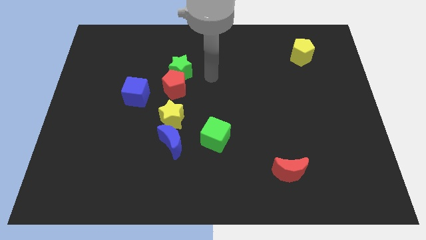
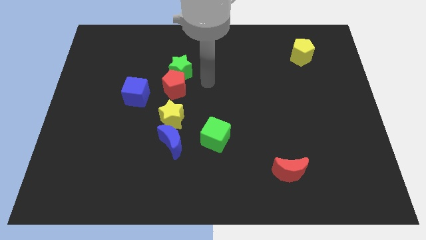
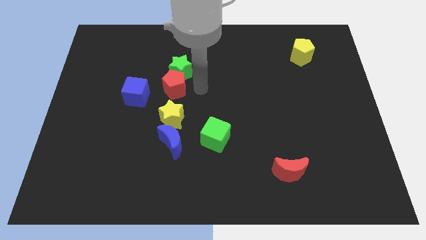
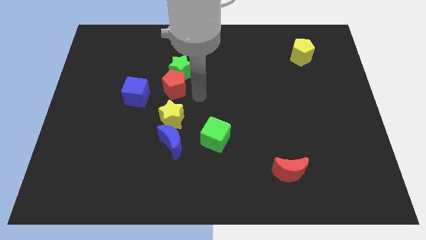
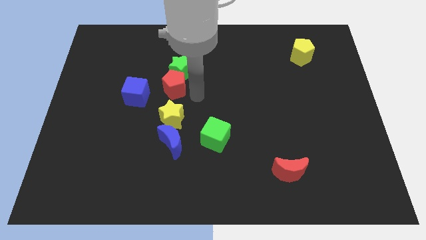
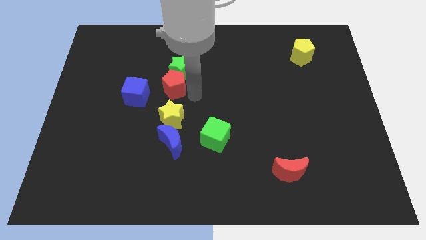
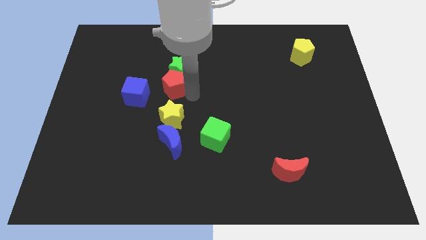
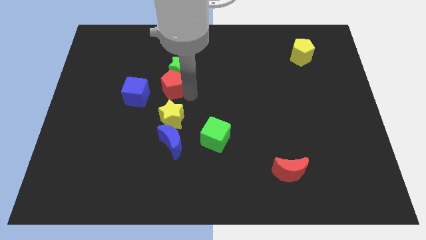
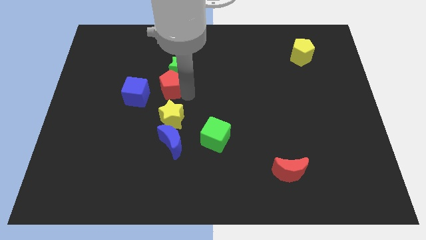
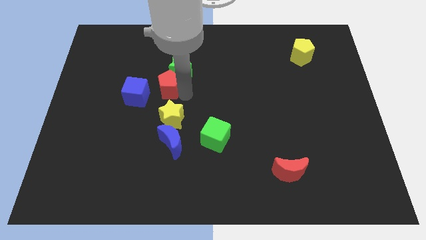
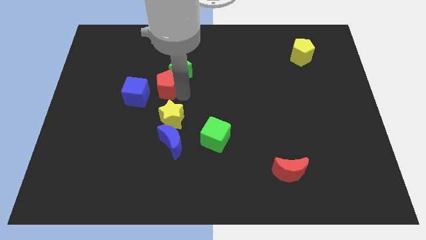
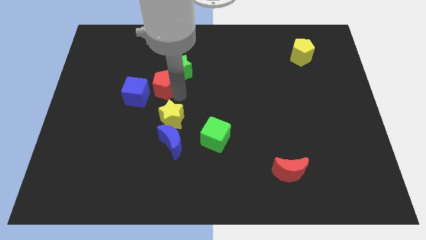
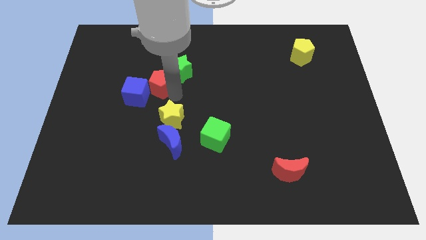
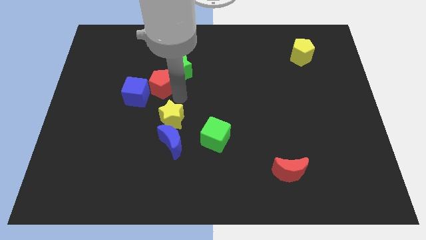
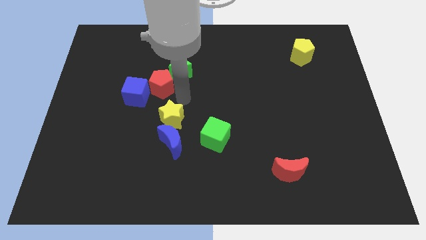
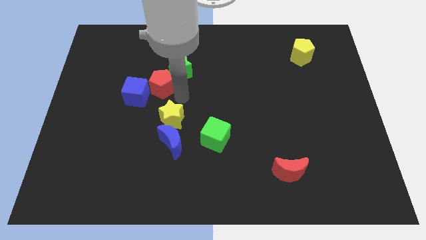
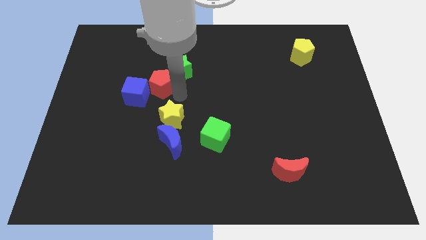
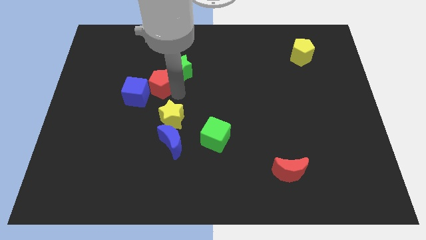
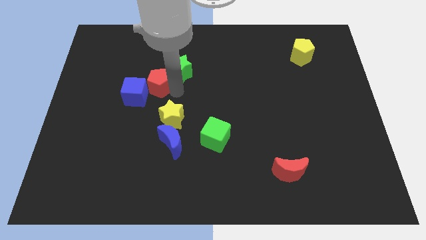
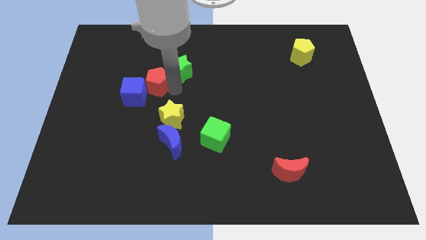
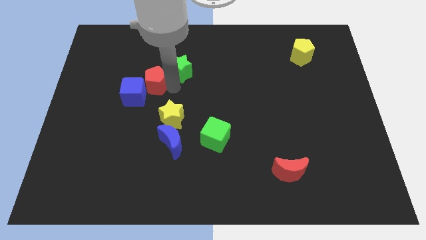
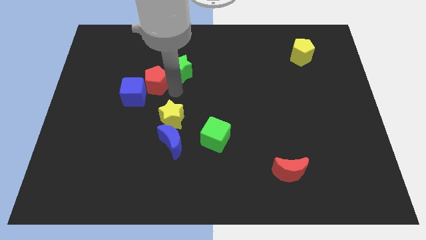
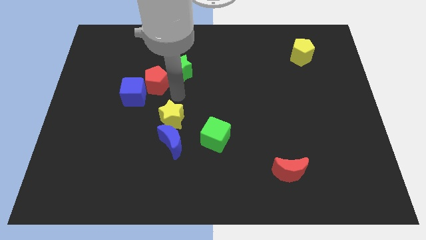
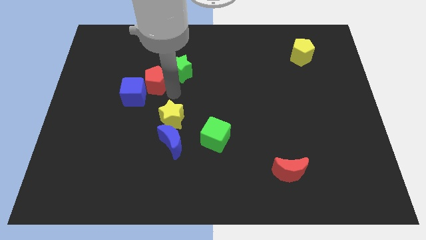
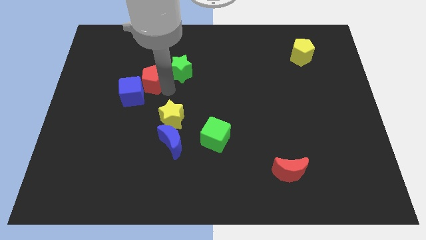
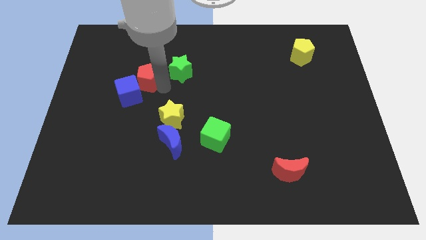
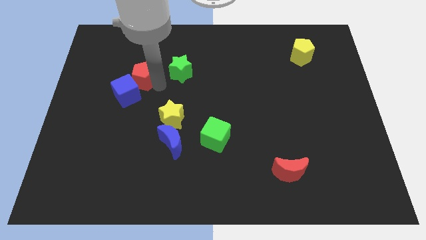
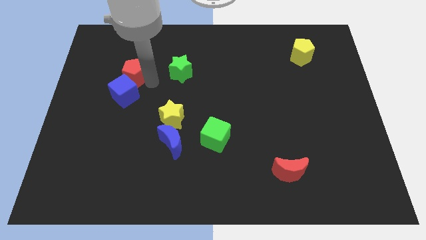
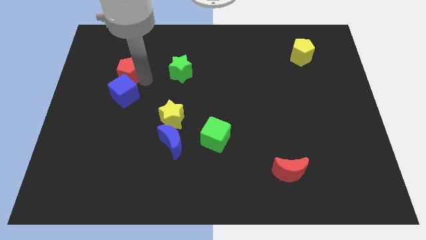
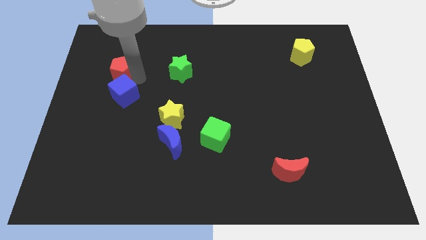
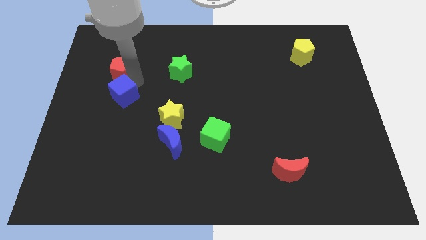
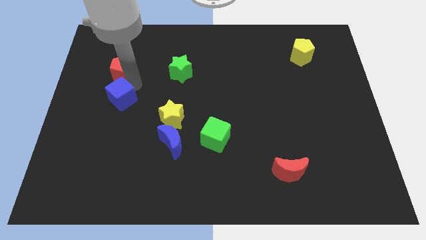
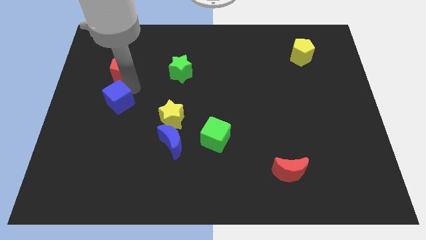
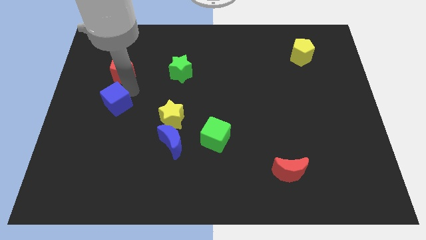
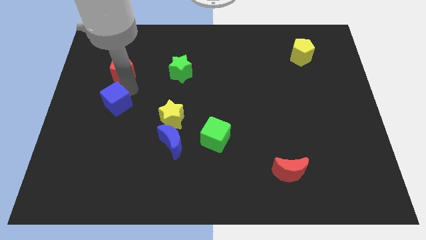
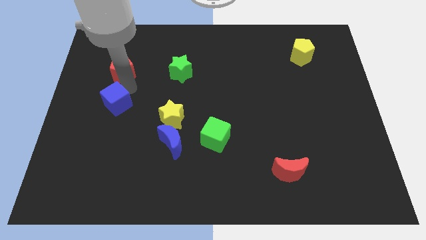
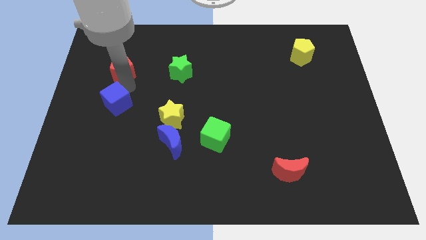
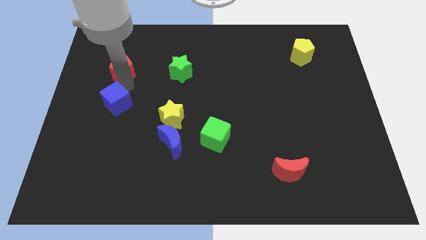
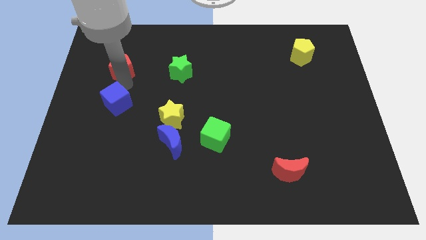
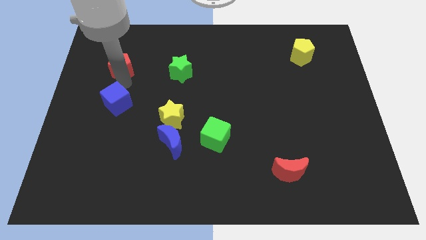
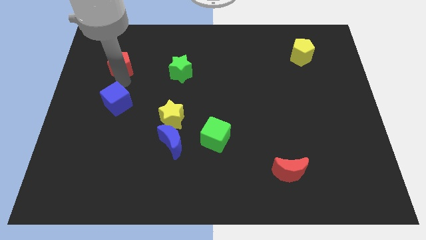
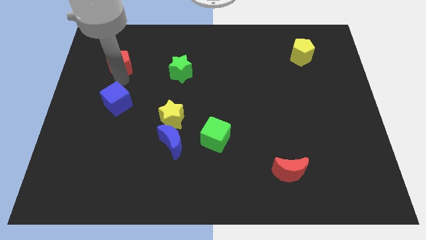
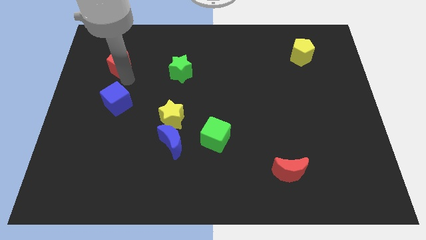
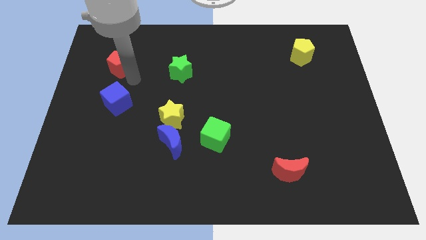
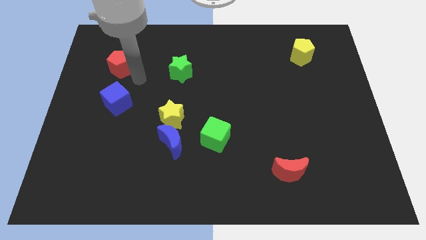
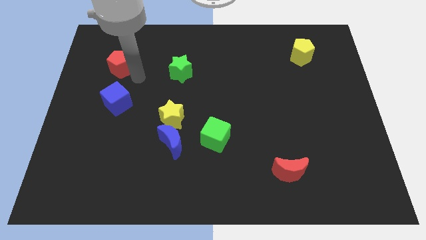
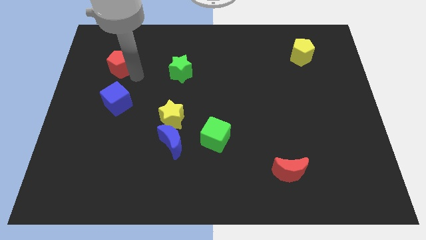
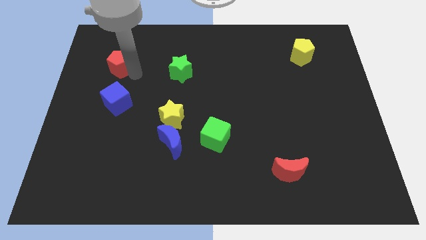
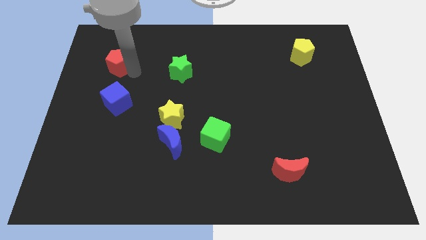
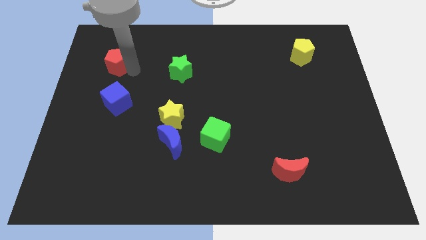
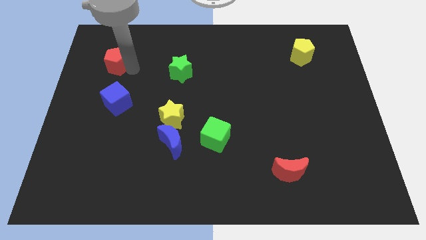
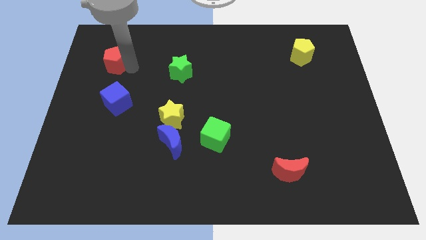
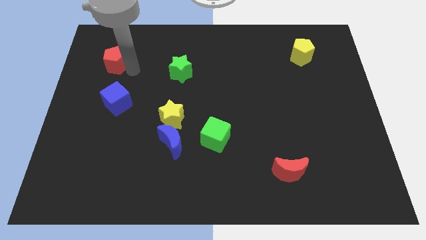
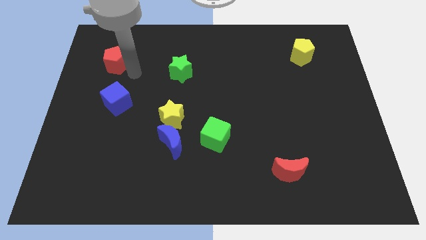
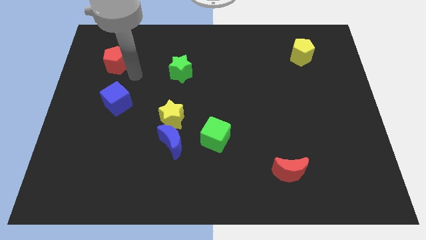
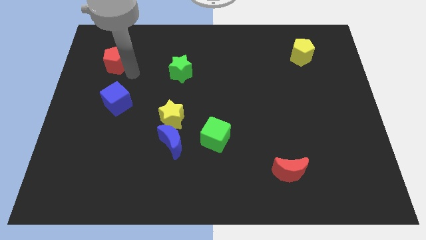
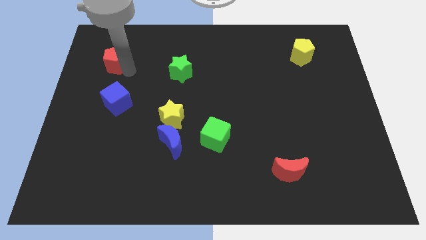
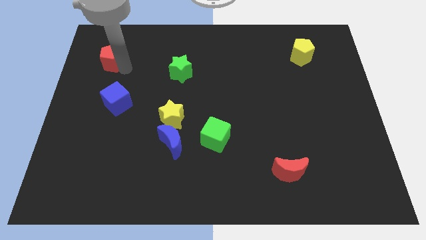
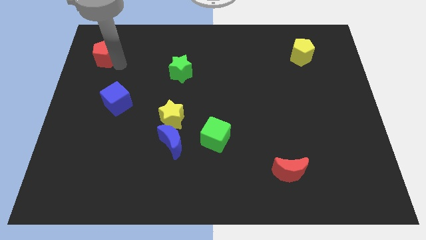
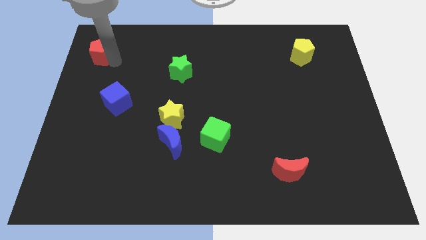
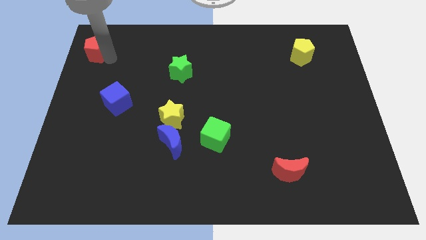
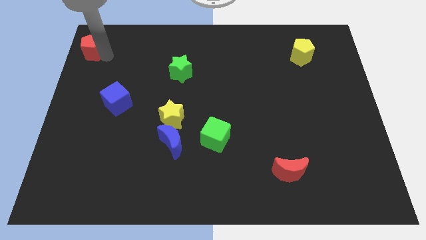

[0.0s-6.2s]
push the red pentagon to the top left corner

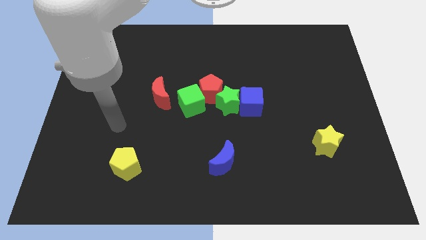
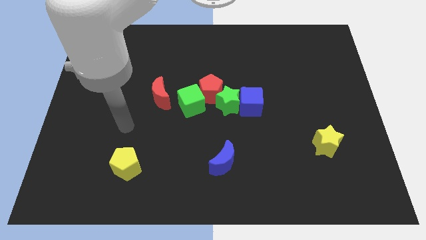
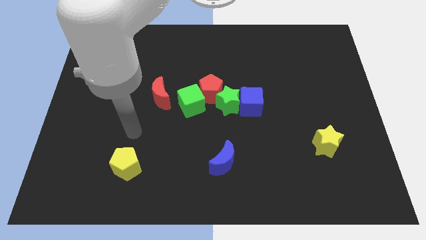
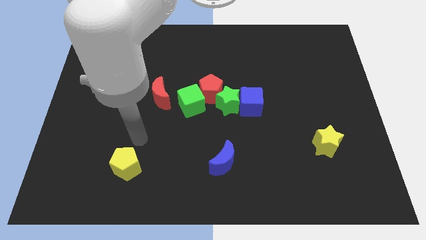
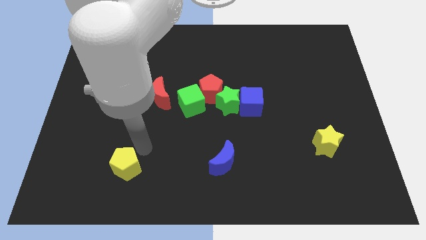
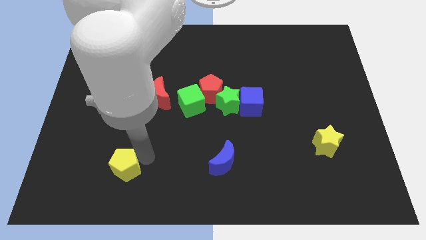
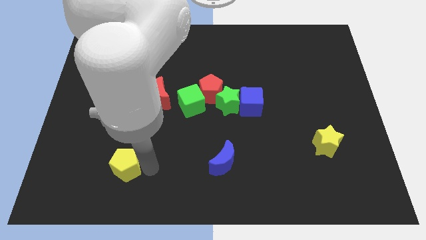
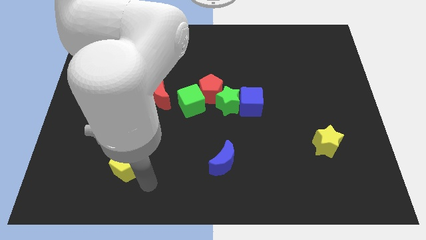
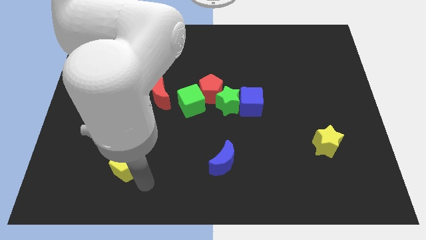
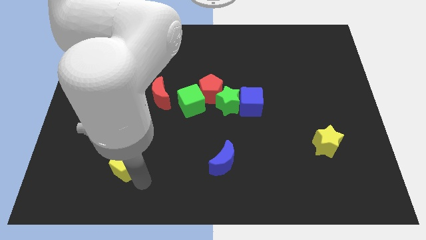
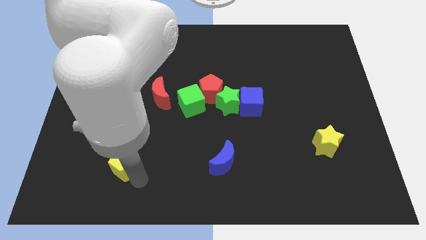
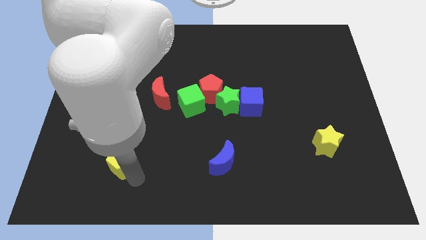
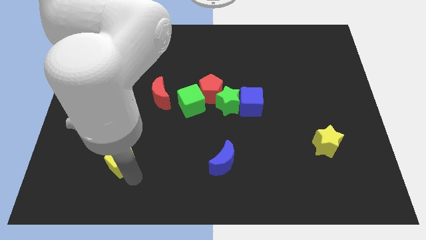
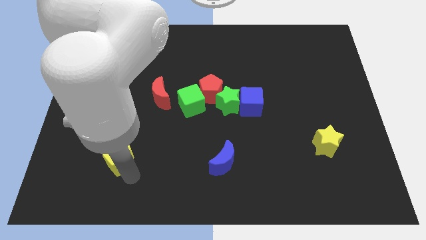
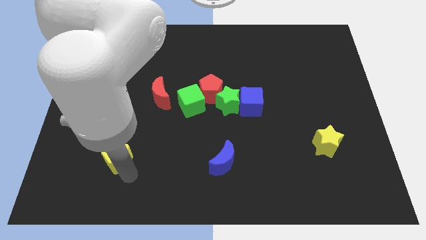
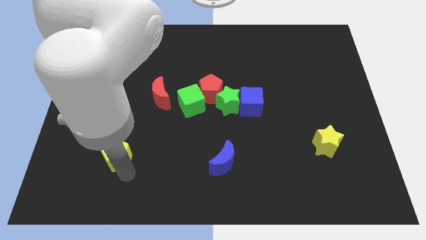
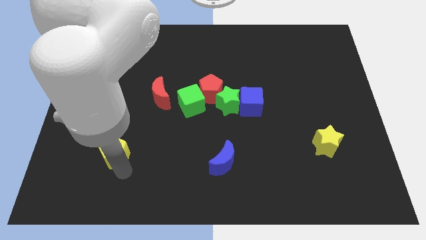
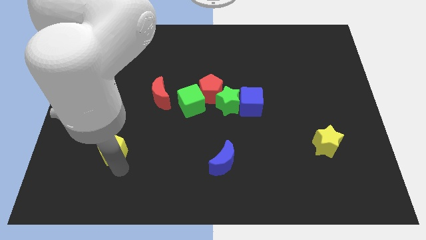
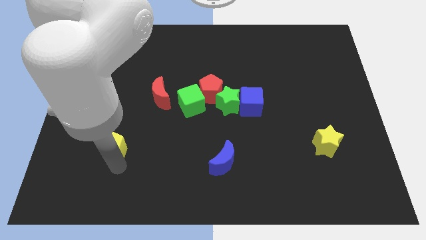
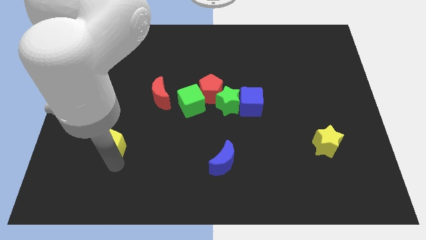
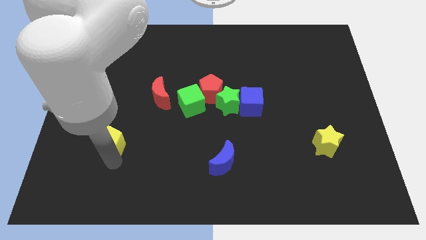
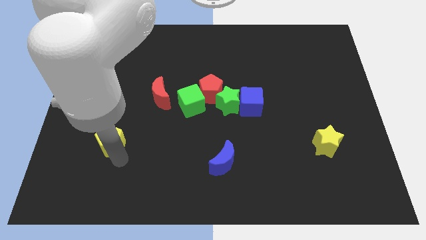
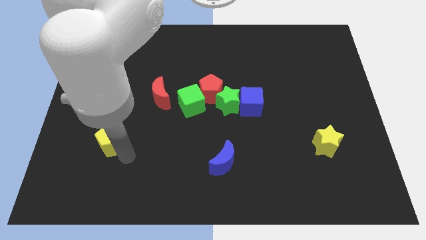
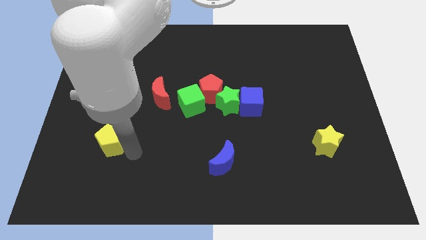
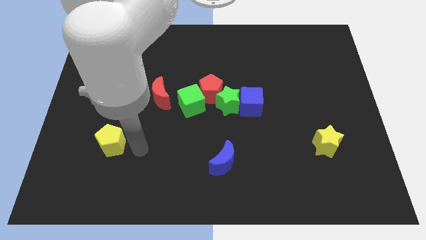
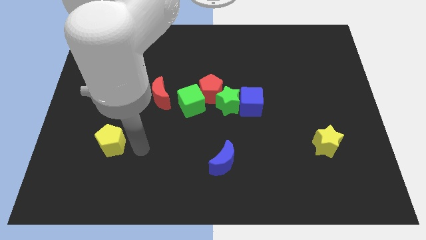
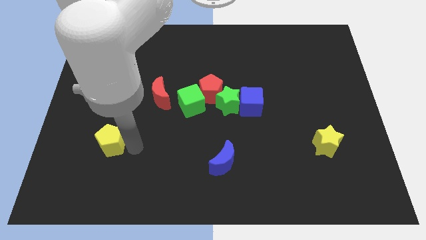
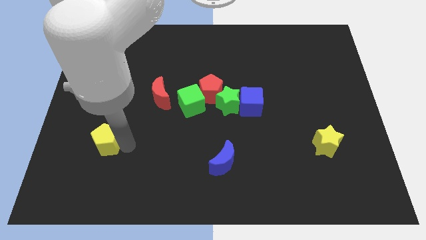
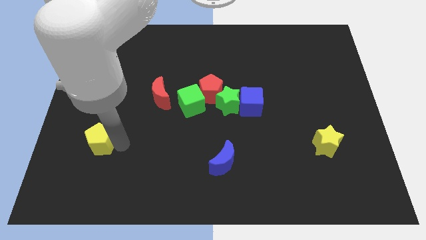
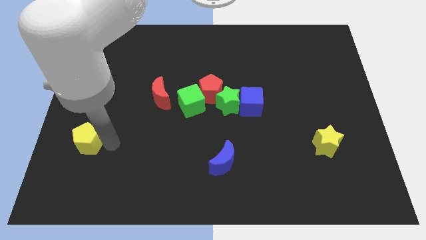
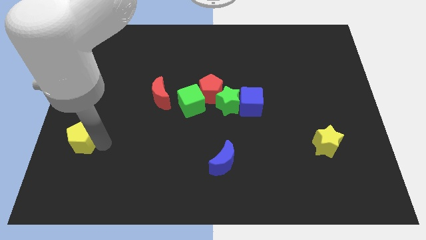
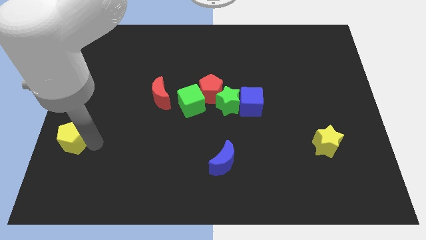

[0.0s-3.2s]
put the yellow pentagon to the center left
